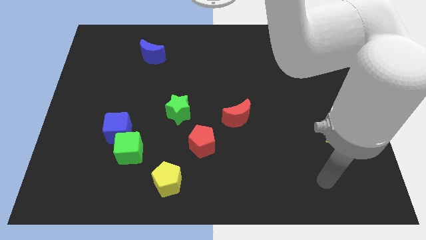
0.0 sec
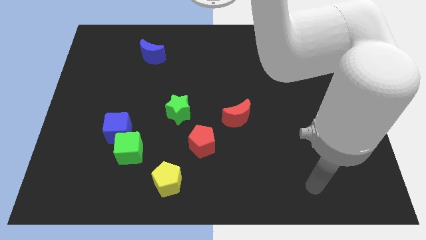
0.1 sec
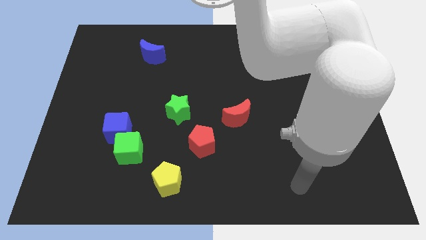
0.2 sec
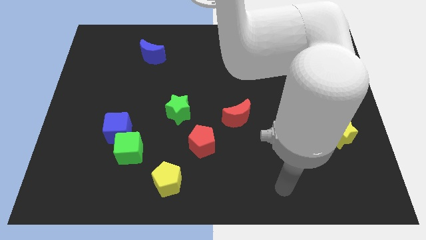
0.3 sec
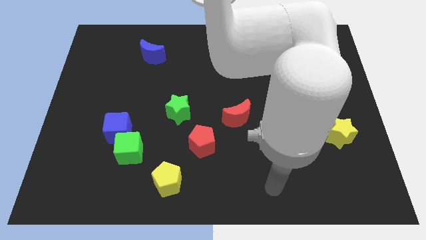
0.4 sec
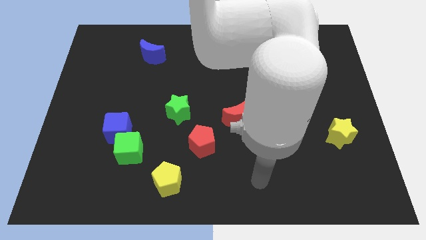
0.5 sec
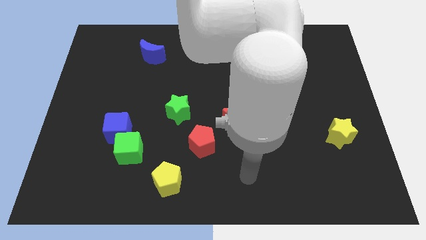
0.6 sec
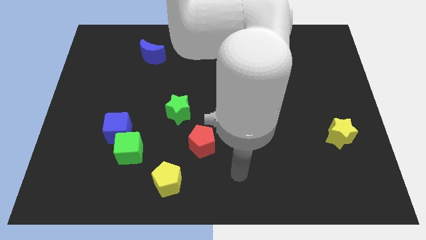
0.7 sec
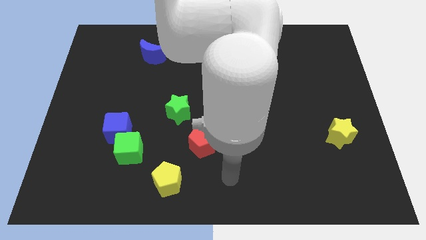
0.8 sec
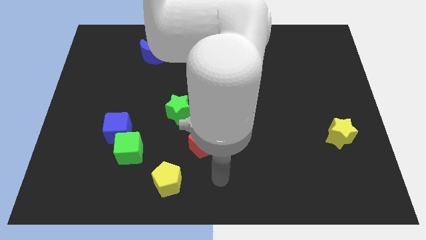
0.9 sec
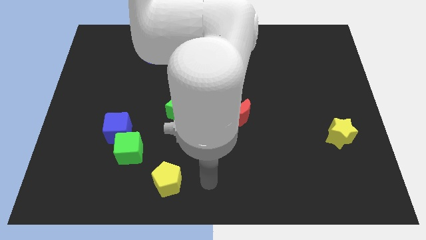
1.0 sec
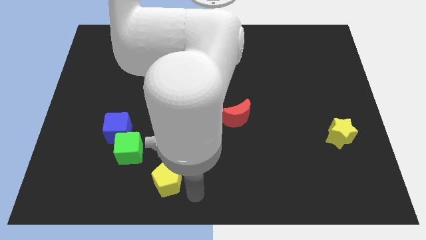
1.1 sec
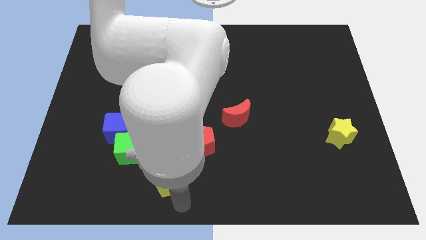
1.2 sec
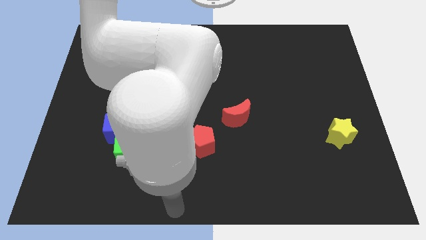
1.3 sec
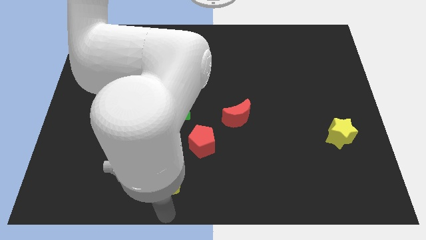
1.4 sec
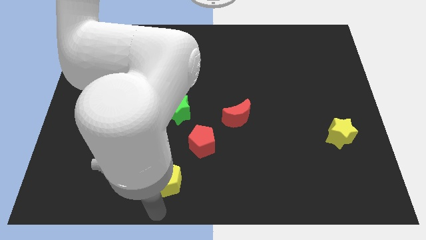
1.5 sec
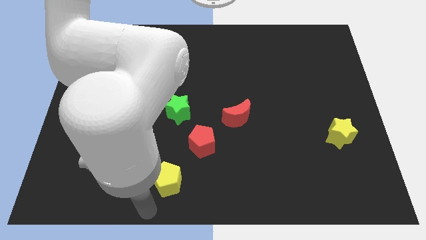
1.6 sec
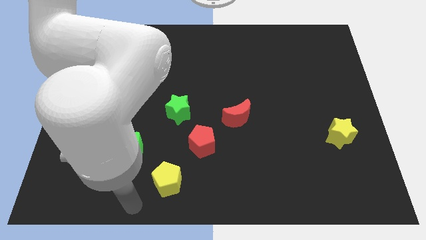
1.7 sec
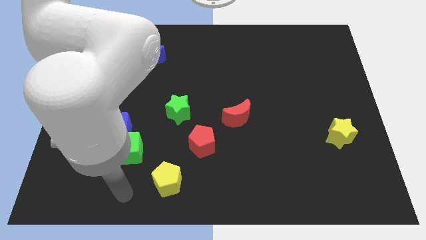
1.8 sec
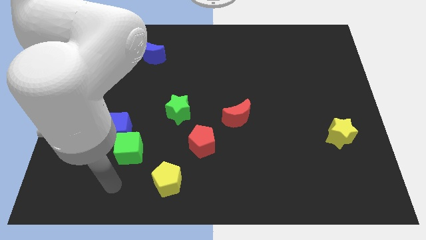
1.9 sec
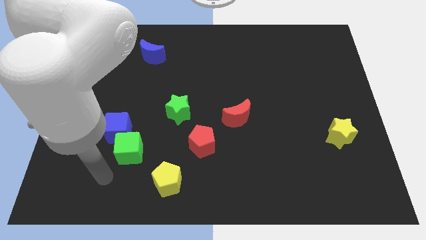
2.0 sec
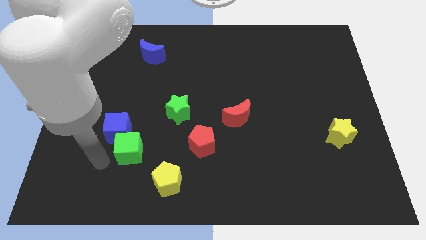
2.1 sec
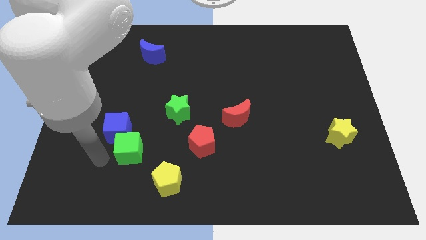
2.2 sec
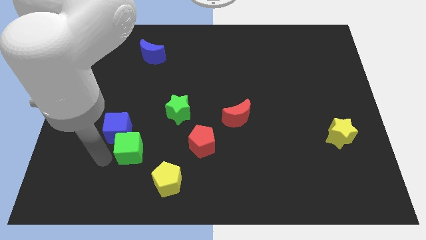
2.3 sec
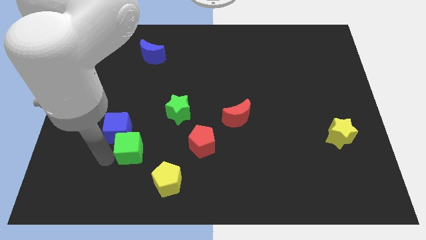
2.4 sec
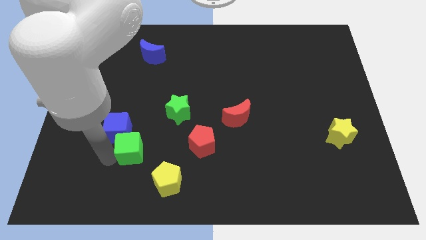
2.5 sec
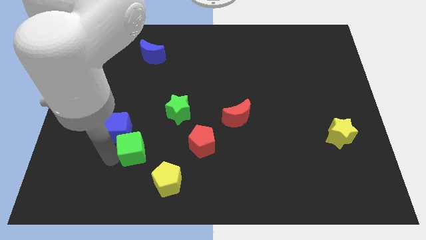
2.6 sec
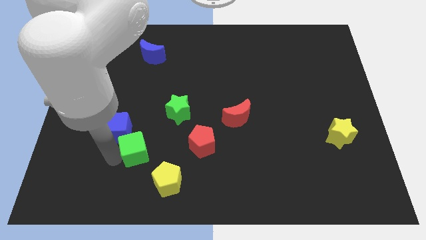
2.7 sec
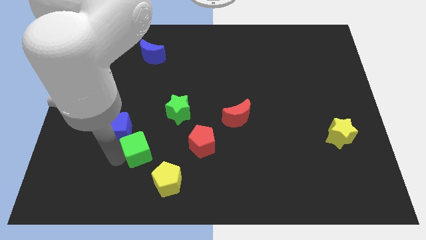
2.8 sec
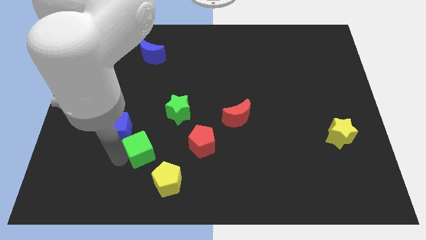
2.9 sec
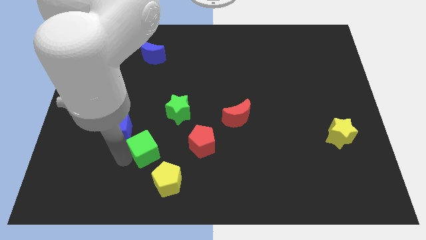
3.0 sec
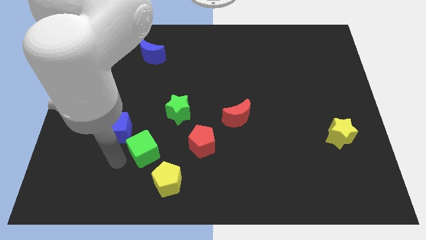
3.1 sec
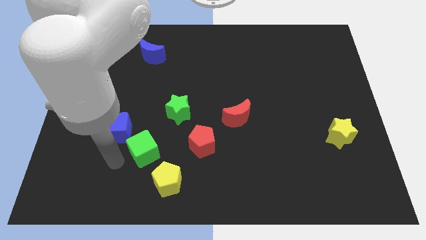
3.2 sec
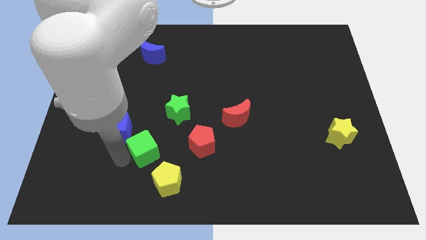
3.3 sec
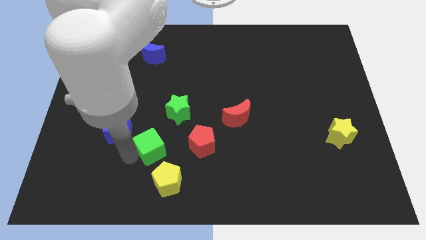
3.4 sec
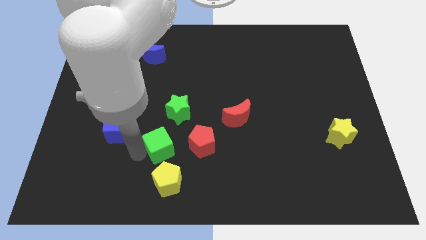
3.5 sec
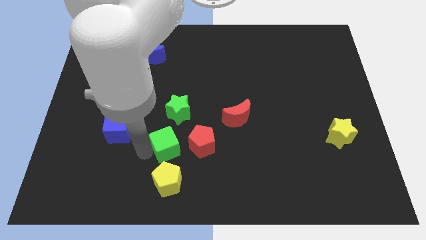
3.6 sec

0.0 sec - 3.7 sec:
push the green cube a bit right

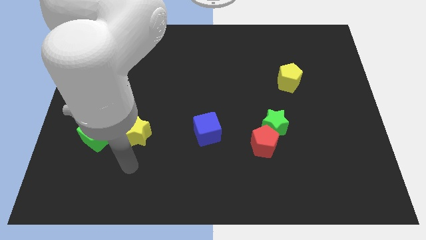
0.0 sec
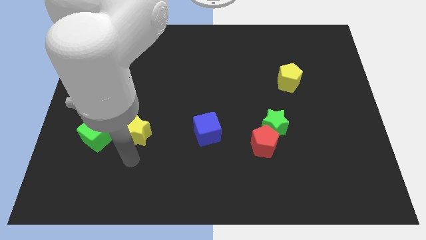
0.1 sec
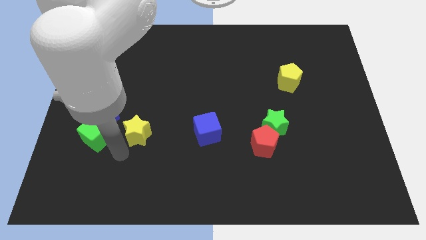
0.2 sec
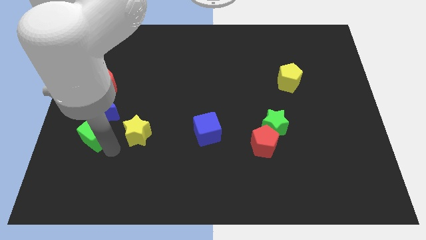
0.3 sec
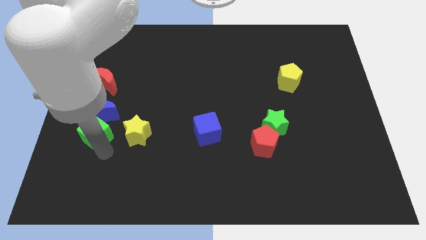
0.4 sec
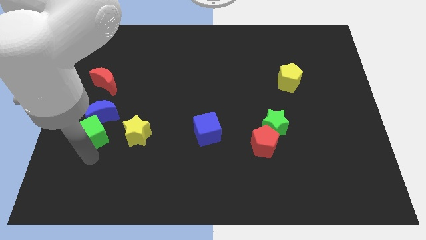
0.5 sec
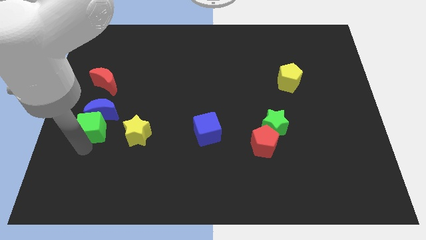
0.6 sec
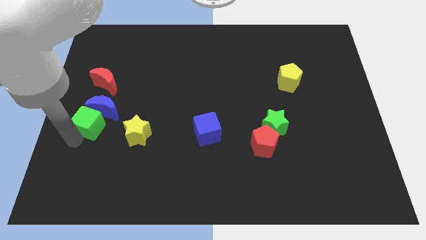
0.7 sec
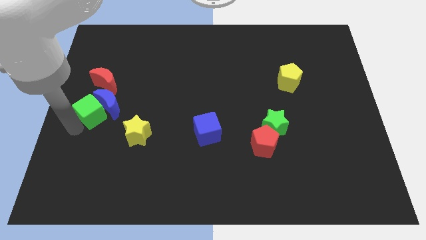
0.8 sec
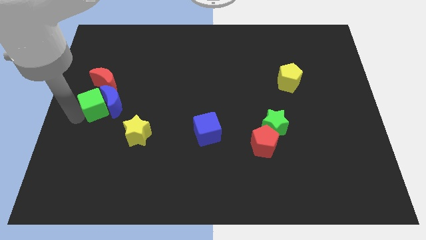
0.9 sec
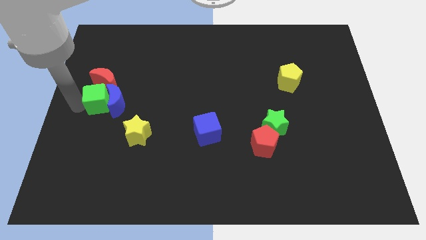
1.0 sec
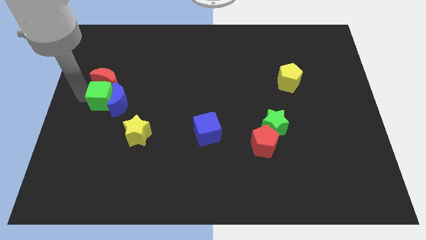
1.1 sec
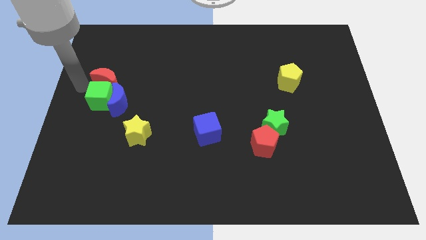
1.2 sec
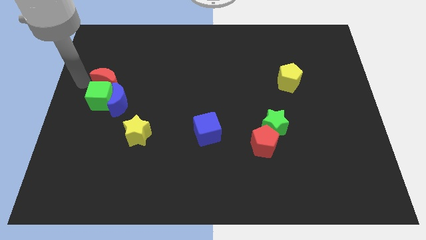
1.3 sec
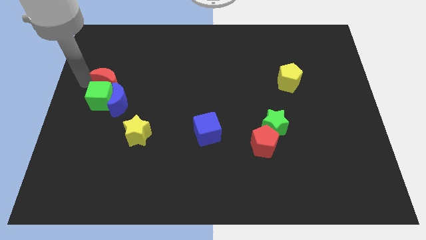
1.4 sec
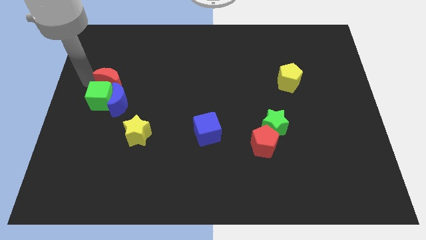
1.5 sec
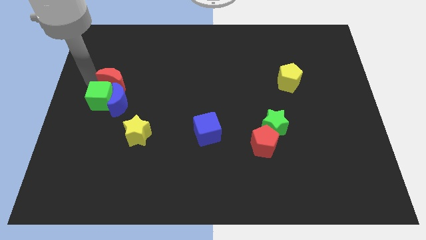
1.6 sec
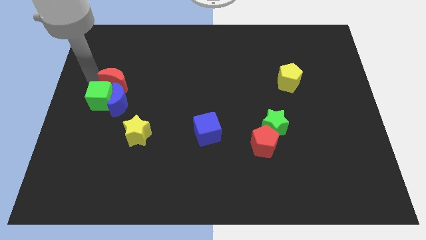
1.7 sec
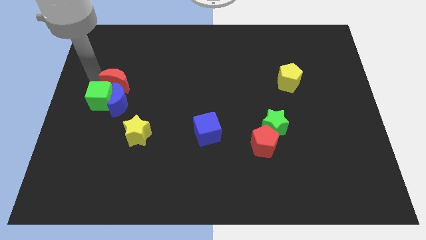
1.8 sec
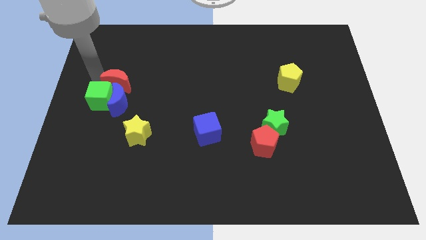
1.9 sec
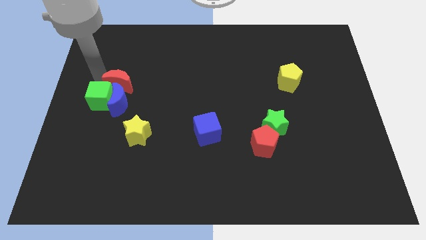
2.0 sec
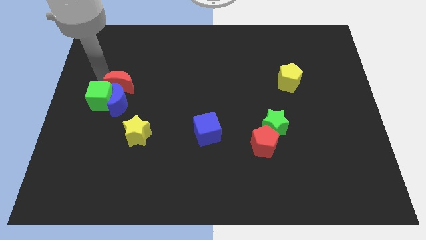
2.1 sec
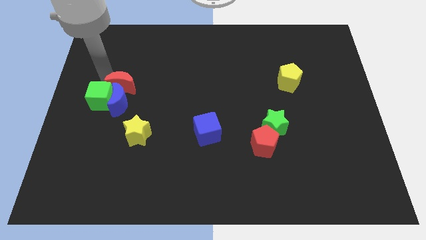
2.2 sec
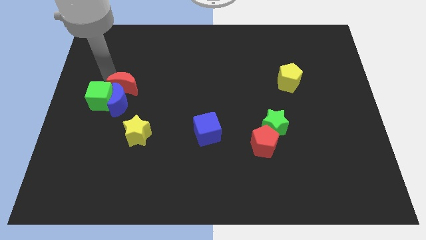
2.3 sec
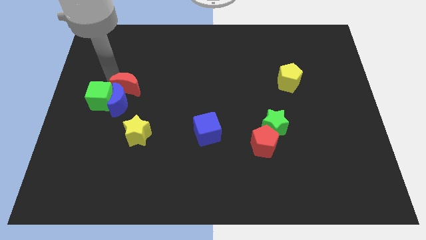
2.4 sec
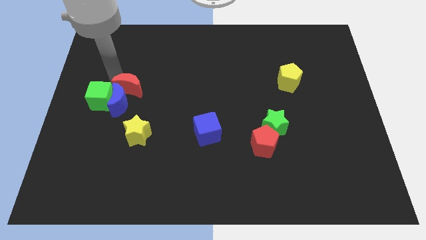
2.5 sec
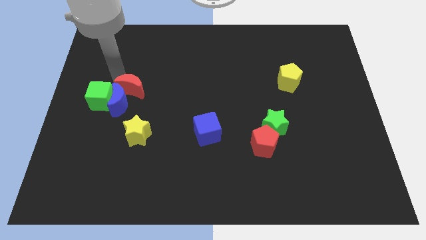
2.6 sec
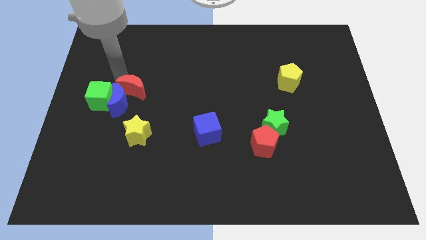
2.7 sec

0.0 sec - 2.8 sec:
slightly push the red moon right

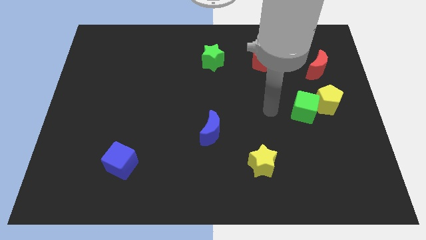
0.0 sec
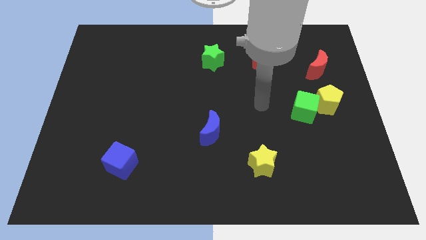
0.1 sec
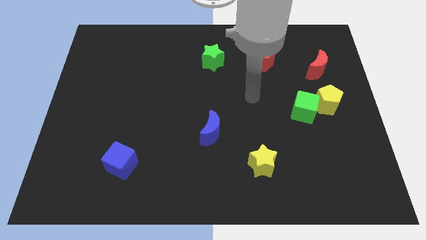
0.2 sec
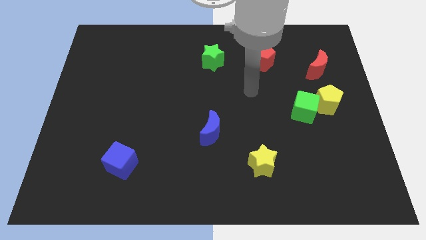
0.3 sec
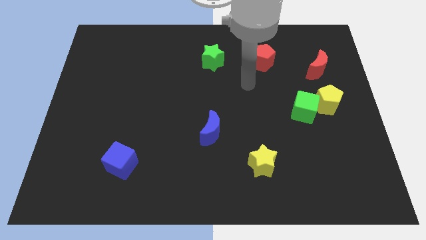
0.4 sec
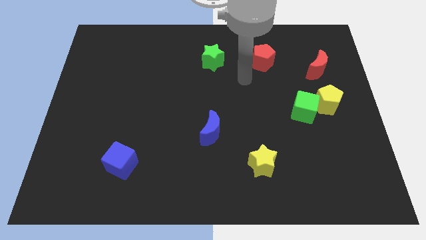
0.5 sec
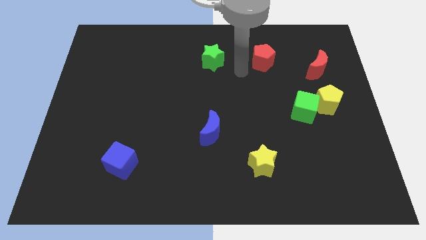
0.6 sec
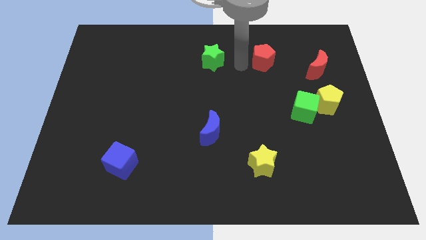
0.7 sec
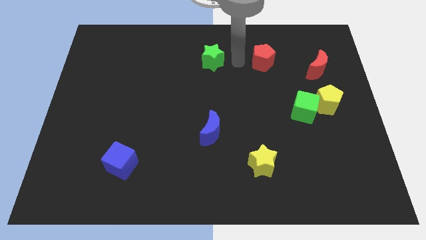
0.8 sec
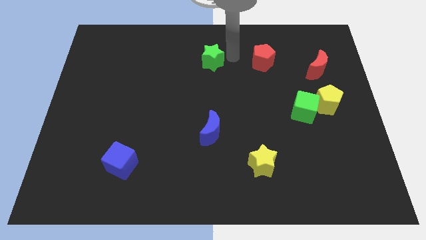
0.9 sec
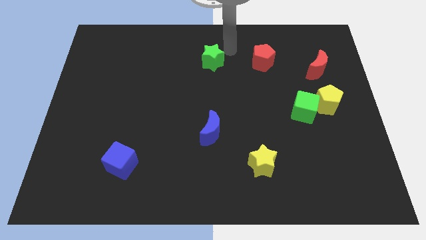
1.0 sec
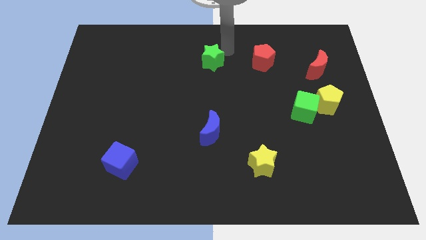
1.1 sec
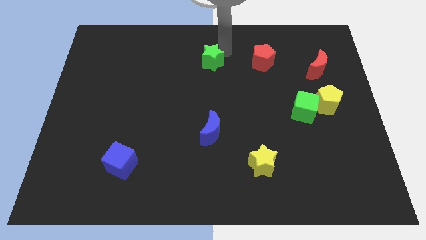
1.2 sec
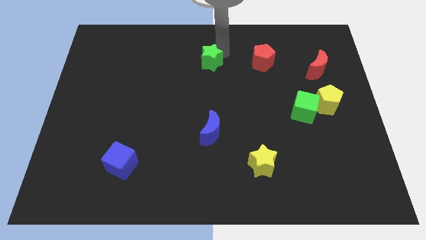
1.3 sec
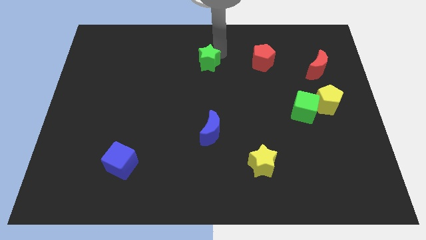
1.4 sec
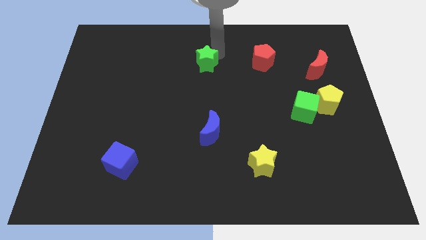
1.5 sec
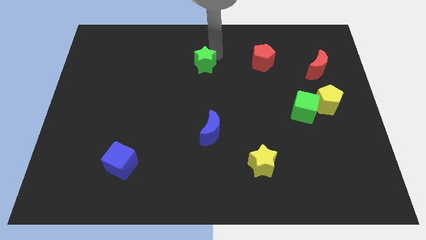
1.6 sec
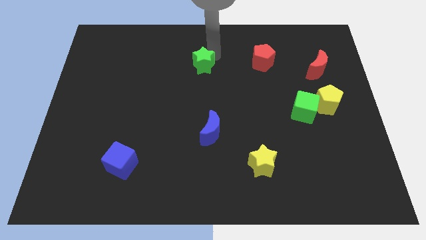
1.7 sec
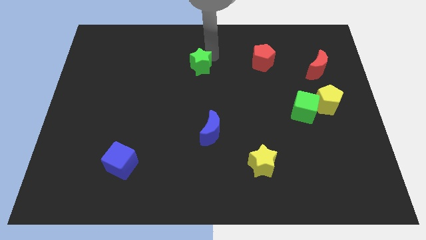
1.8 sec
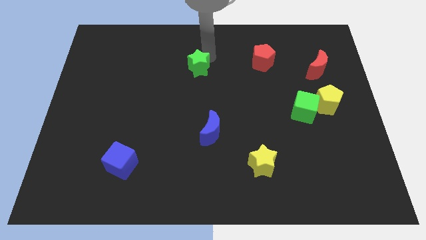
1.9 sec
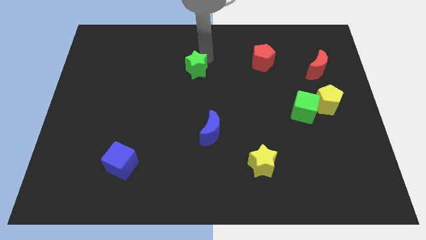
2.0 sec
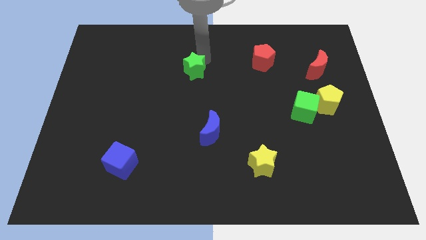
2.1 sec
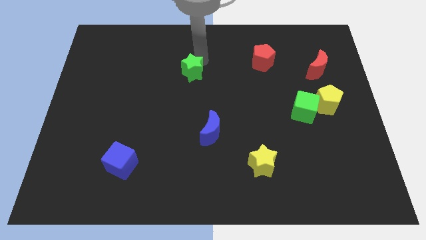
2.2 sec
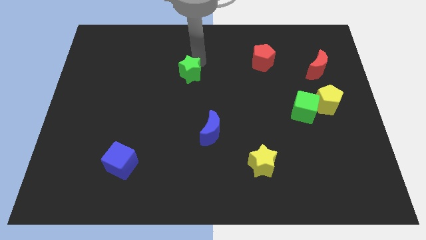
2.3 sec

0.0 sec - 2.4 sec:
push the green star a bit downwards and left
